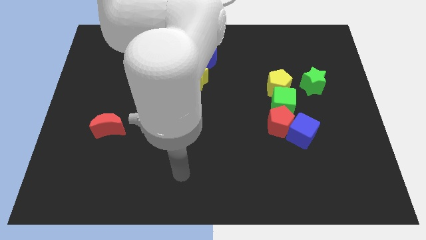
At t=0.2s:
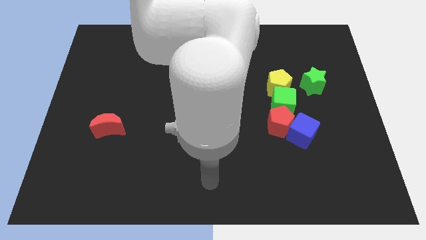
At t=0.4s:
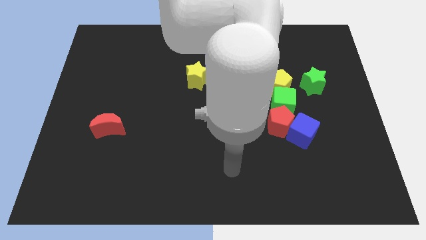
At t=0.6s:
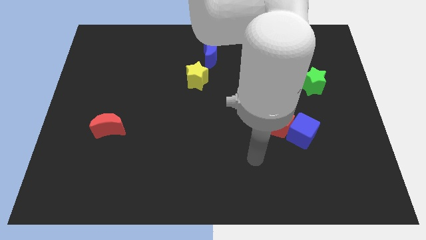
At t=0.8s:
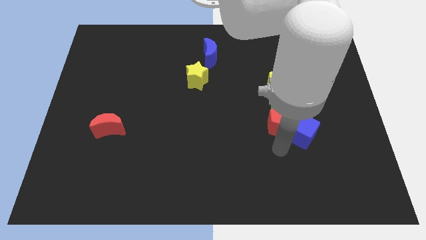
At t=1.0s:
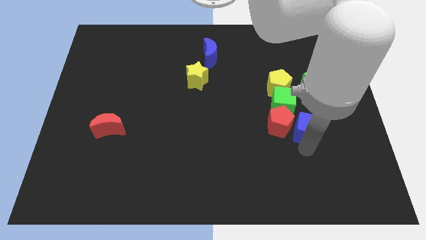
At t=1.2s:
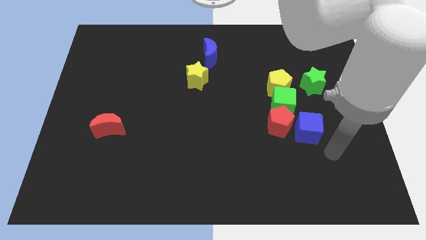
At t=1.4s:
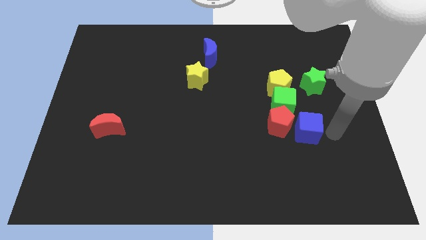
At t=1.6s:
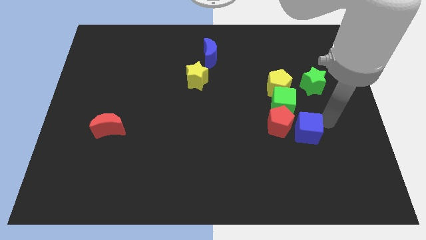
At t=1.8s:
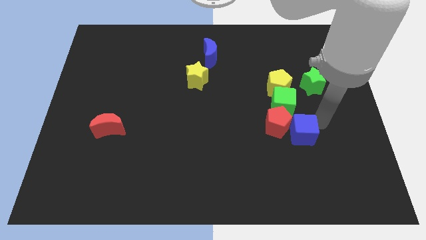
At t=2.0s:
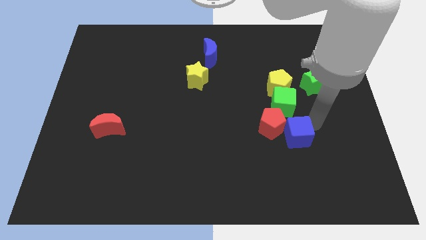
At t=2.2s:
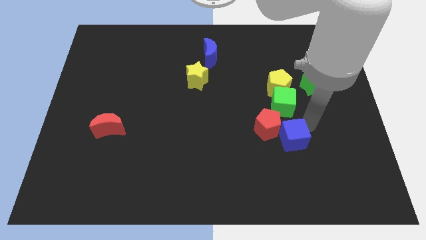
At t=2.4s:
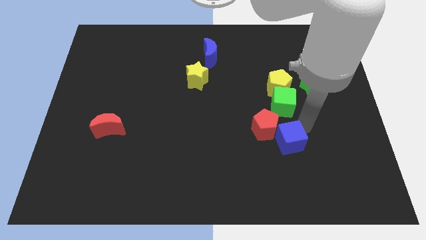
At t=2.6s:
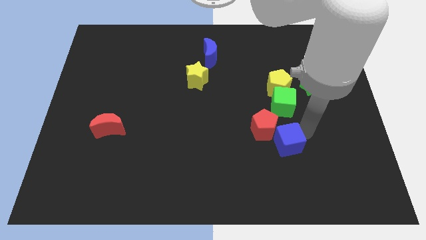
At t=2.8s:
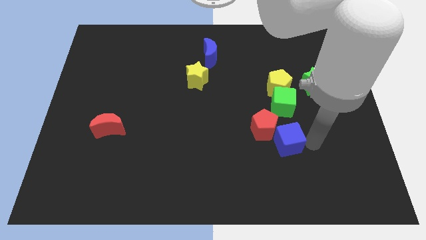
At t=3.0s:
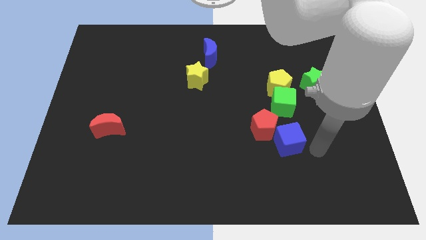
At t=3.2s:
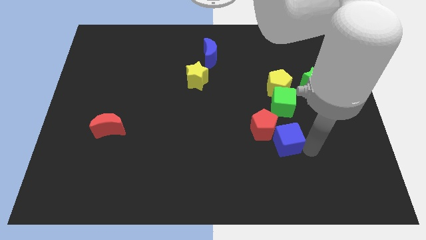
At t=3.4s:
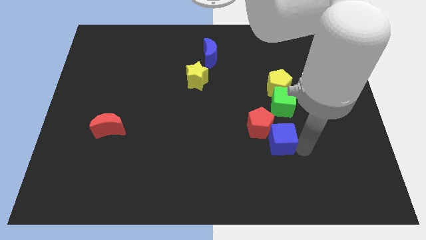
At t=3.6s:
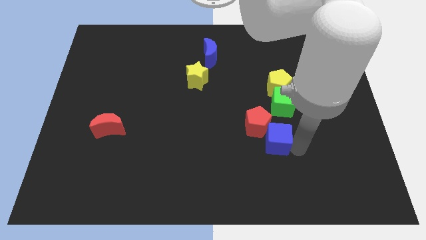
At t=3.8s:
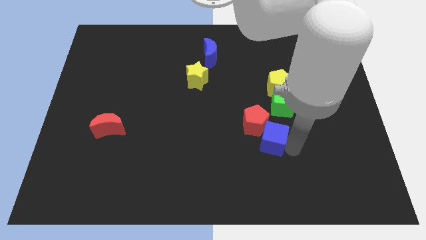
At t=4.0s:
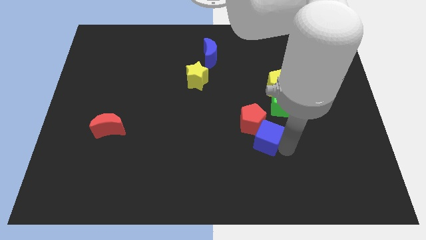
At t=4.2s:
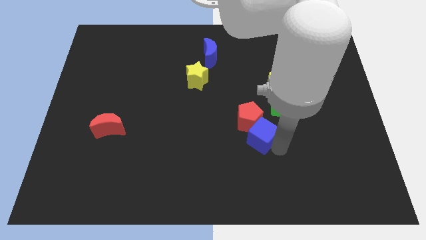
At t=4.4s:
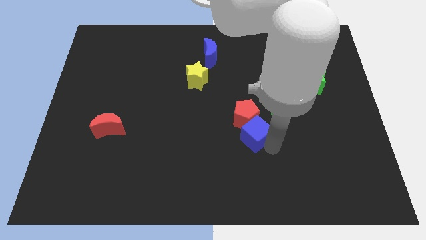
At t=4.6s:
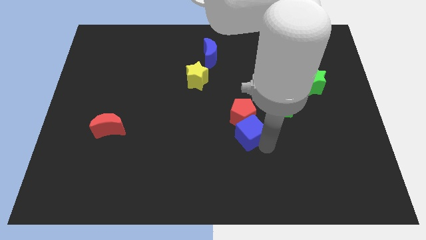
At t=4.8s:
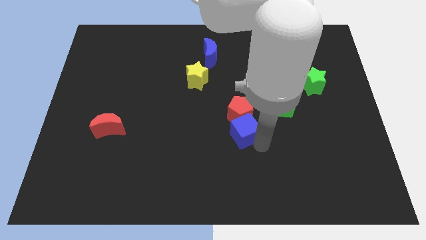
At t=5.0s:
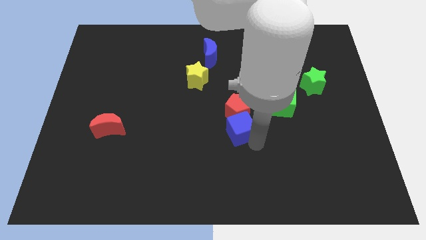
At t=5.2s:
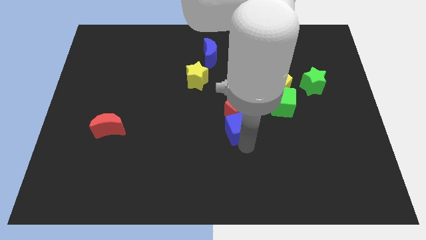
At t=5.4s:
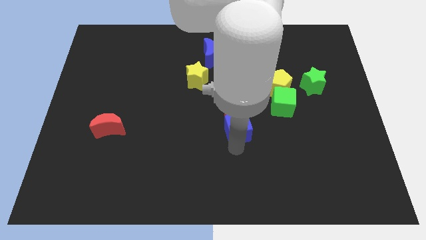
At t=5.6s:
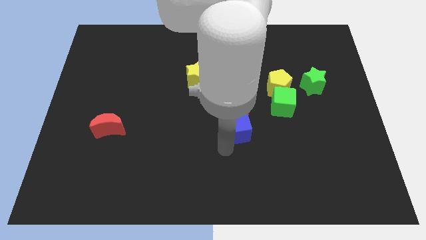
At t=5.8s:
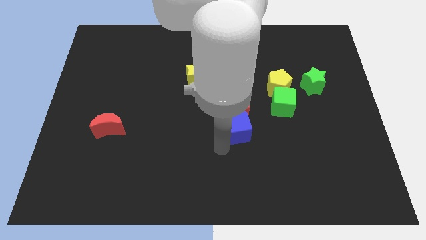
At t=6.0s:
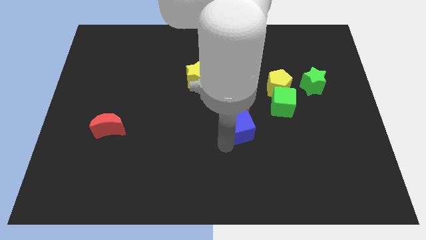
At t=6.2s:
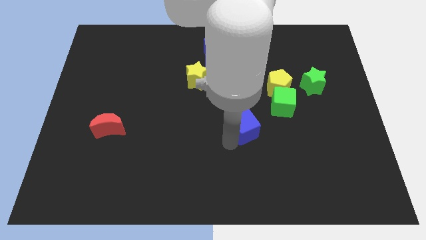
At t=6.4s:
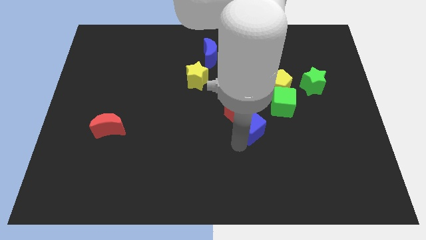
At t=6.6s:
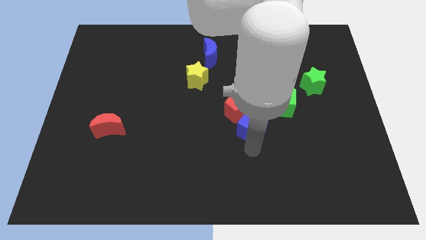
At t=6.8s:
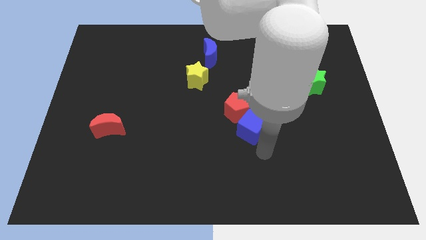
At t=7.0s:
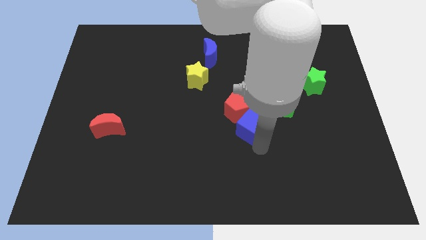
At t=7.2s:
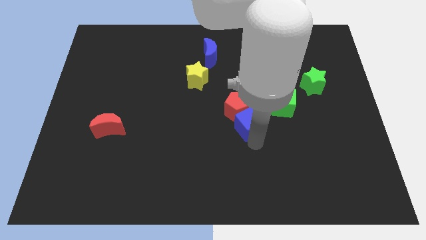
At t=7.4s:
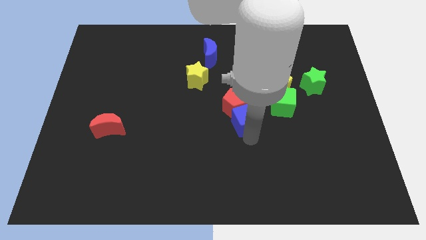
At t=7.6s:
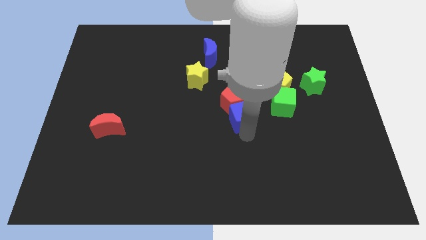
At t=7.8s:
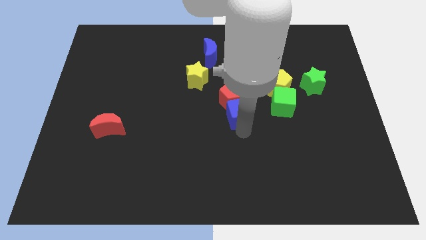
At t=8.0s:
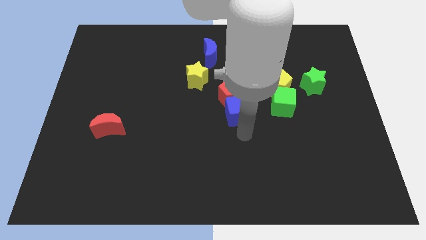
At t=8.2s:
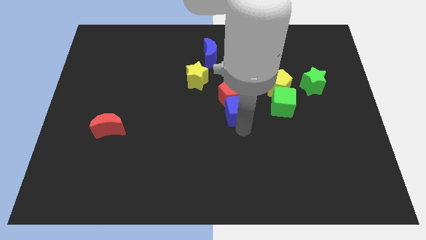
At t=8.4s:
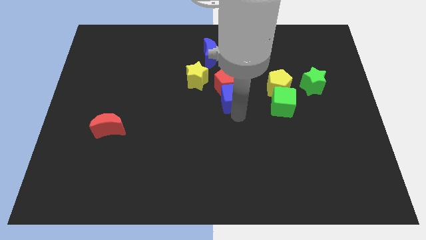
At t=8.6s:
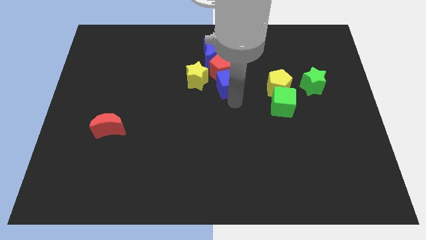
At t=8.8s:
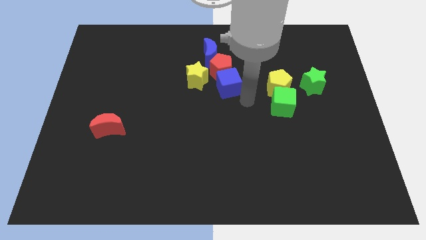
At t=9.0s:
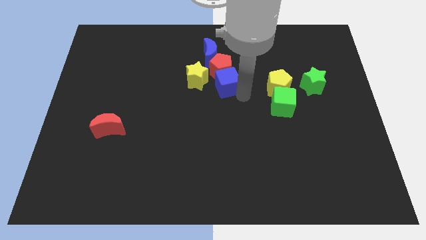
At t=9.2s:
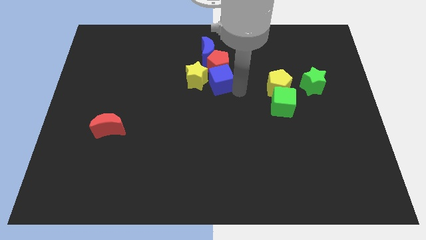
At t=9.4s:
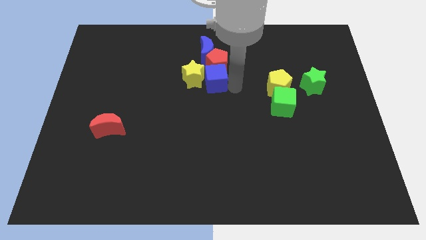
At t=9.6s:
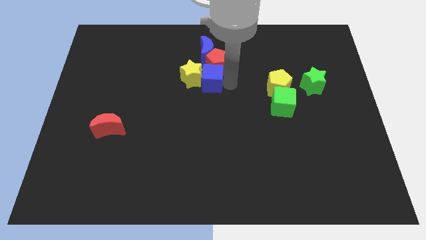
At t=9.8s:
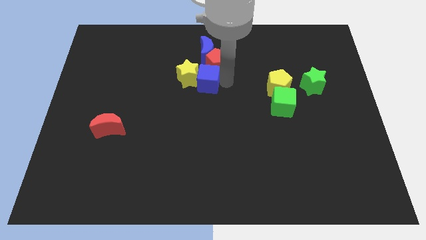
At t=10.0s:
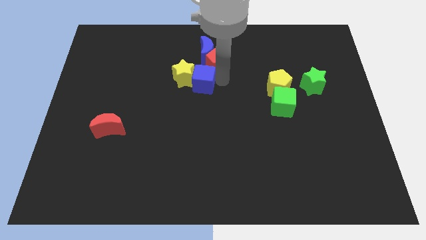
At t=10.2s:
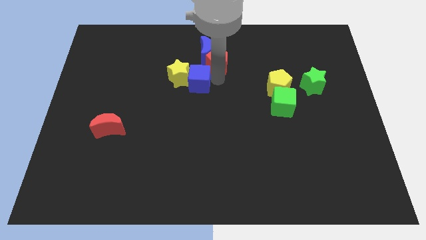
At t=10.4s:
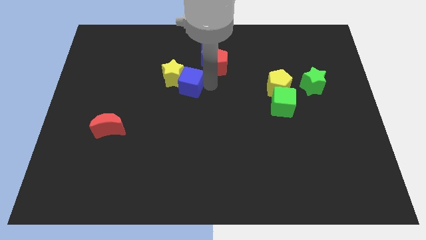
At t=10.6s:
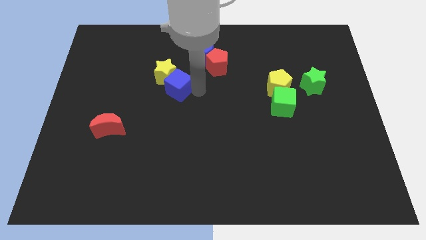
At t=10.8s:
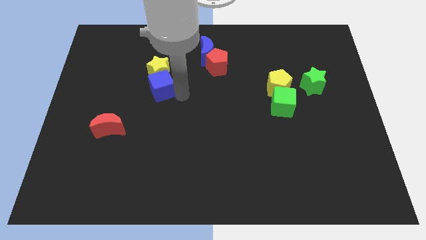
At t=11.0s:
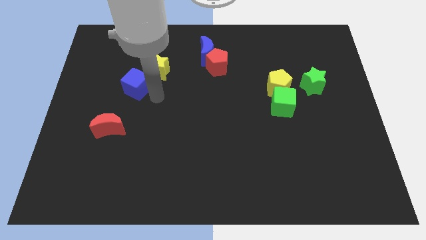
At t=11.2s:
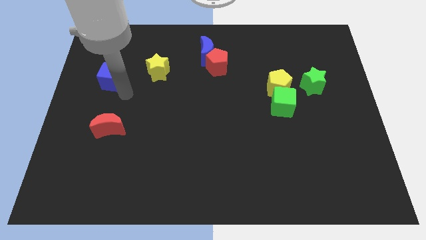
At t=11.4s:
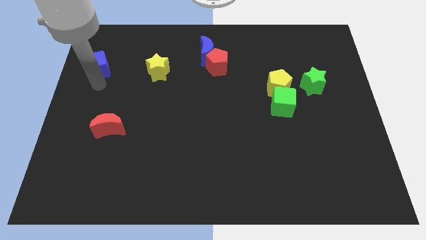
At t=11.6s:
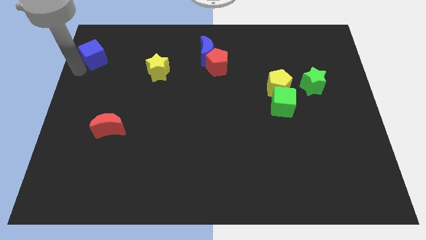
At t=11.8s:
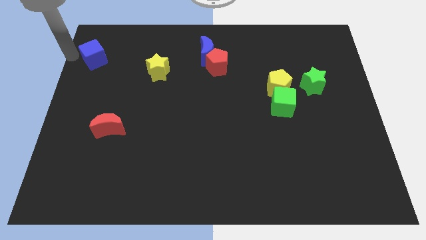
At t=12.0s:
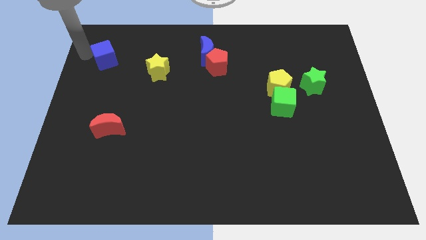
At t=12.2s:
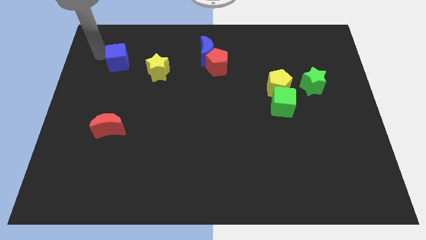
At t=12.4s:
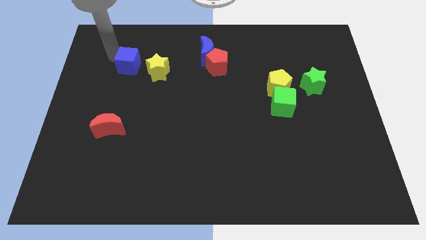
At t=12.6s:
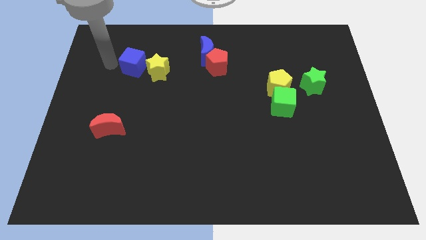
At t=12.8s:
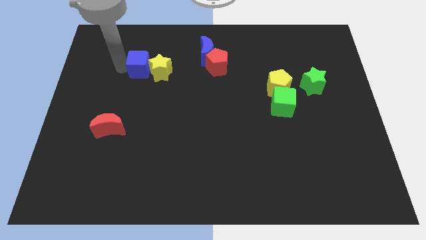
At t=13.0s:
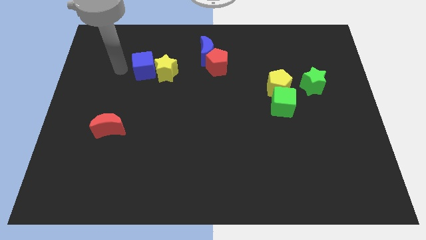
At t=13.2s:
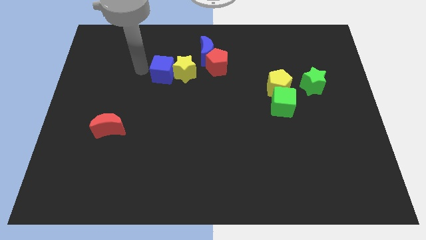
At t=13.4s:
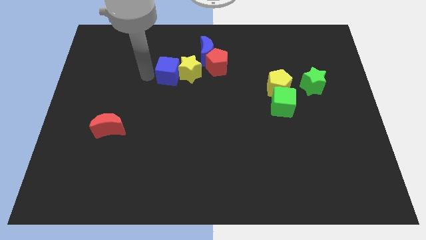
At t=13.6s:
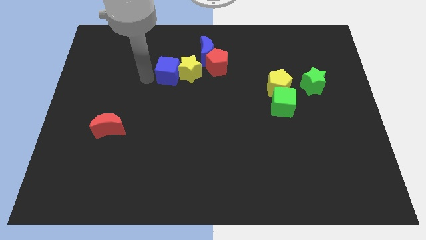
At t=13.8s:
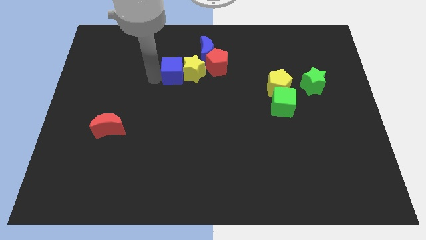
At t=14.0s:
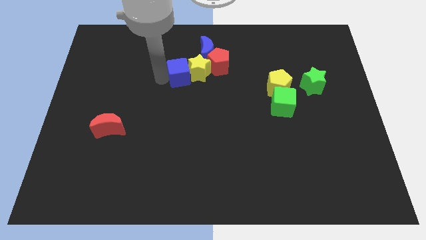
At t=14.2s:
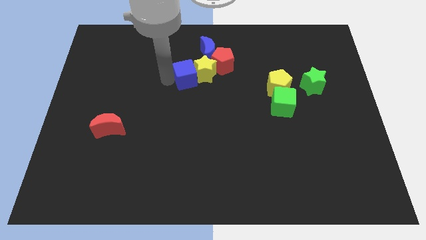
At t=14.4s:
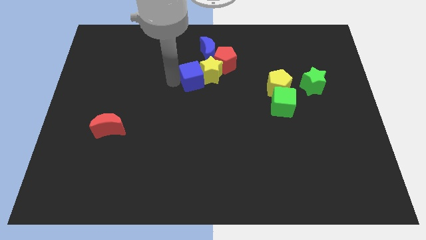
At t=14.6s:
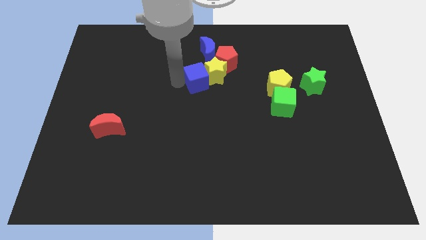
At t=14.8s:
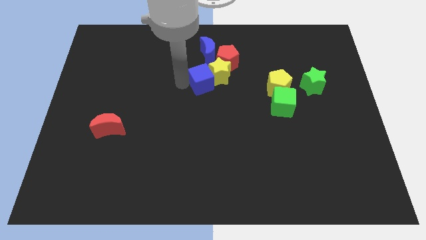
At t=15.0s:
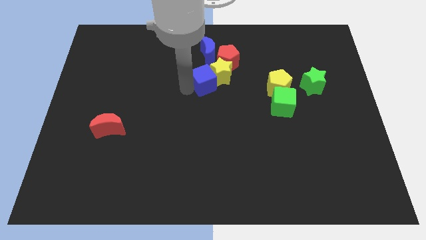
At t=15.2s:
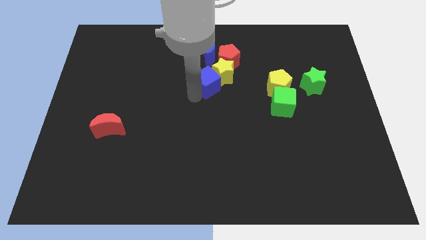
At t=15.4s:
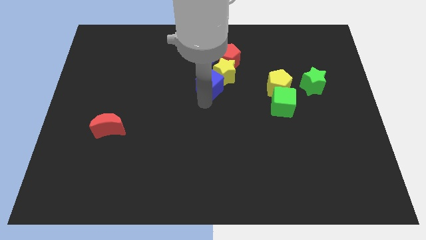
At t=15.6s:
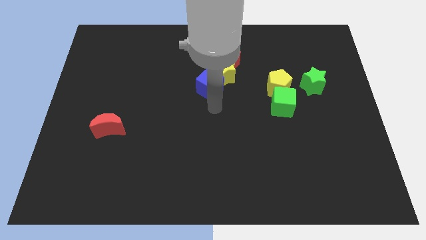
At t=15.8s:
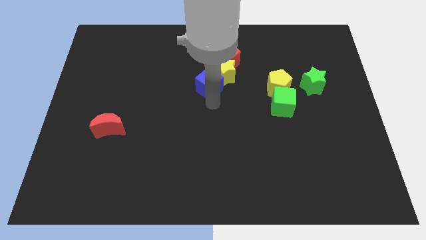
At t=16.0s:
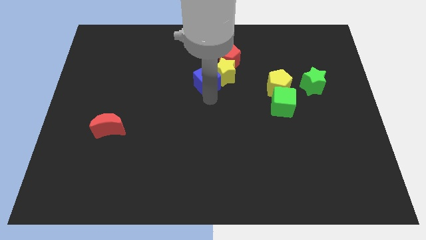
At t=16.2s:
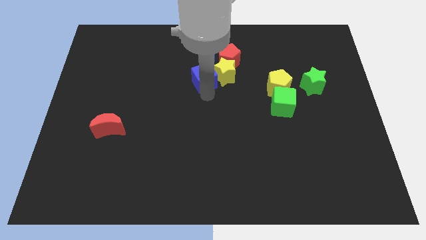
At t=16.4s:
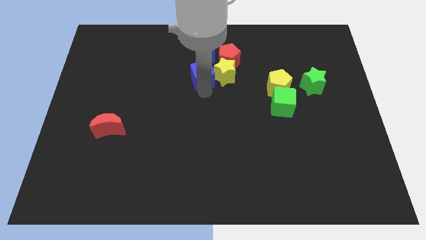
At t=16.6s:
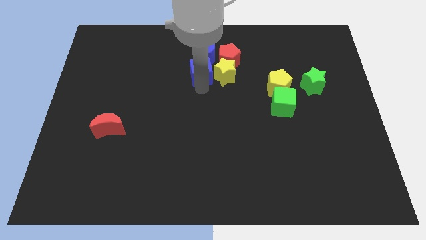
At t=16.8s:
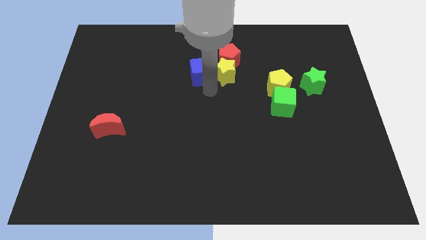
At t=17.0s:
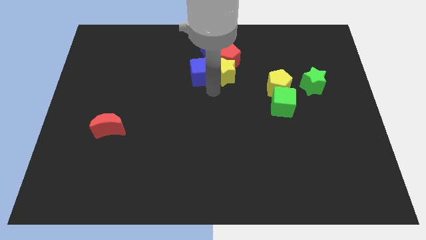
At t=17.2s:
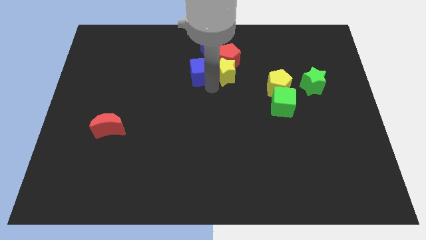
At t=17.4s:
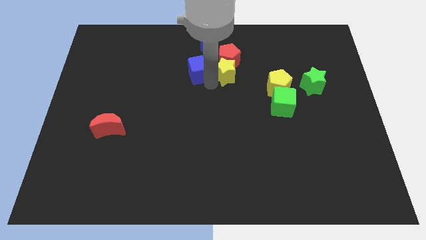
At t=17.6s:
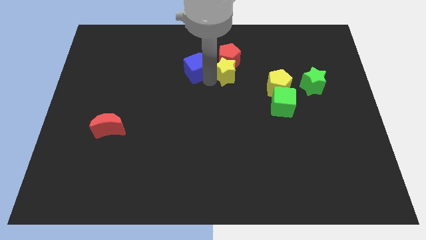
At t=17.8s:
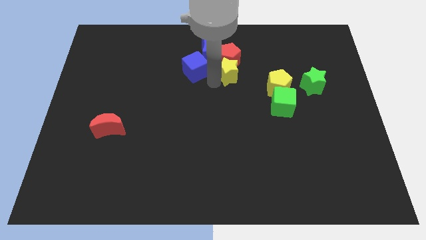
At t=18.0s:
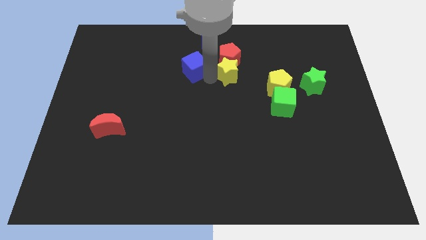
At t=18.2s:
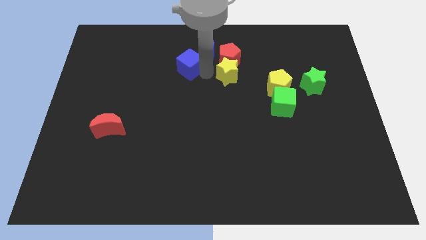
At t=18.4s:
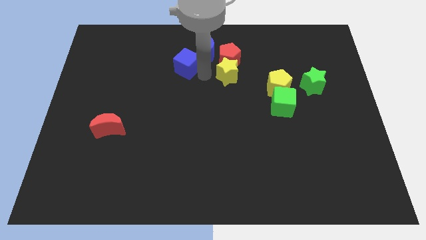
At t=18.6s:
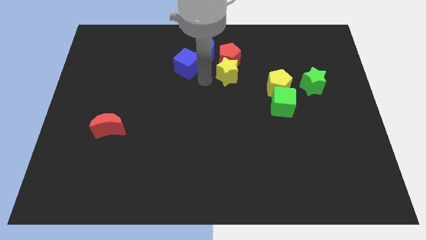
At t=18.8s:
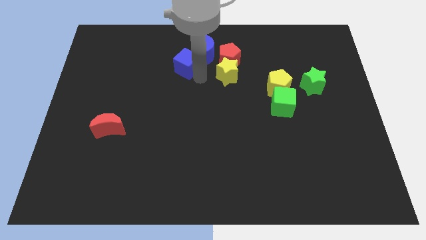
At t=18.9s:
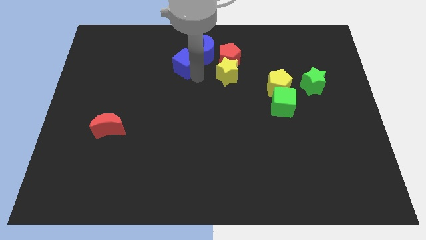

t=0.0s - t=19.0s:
slide the blue cube just left of the blue moon
